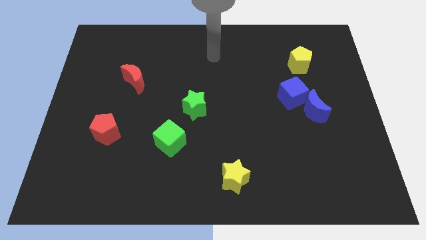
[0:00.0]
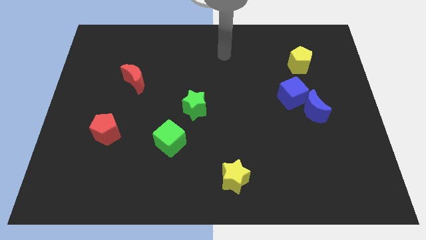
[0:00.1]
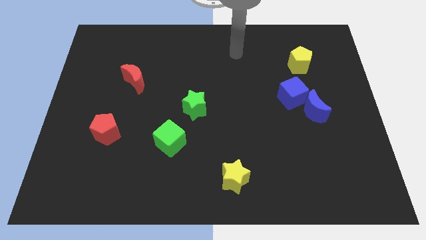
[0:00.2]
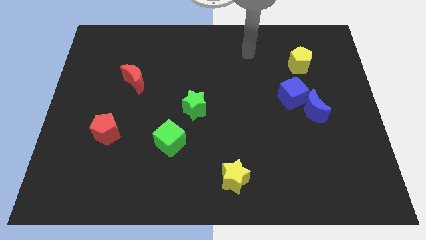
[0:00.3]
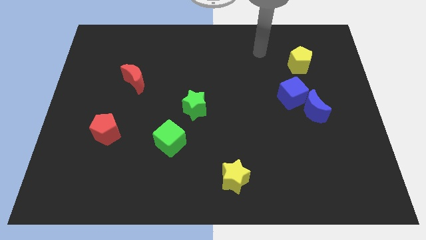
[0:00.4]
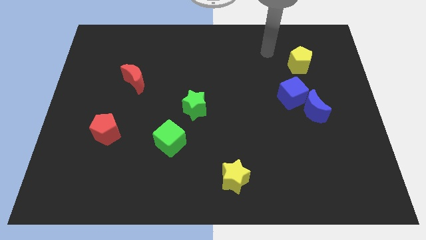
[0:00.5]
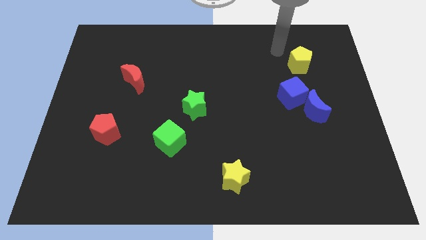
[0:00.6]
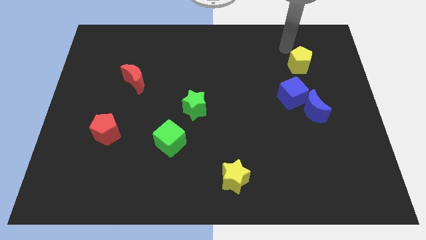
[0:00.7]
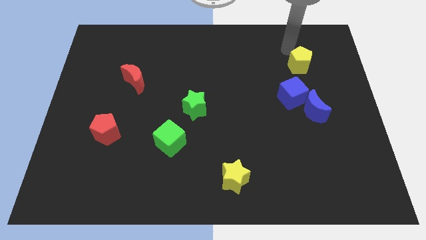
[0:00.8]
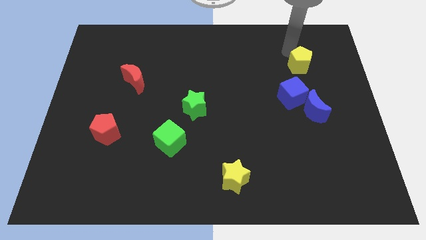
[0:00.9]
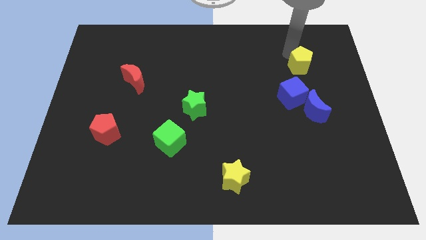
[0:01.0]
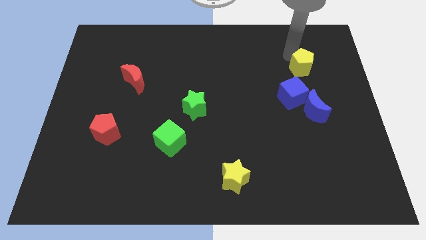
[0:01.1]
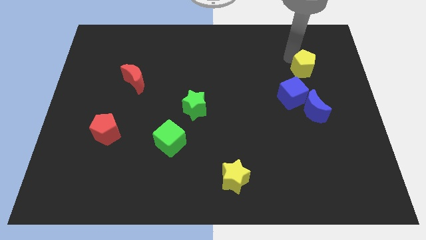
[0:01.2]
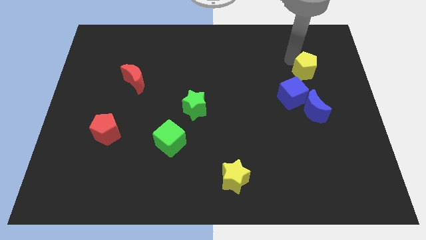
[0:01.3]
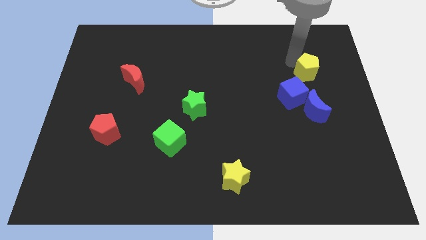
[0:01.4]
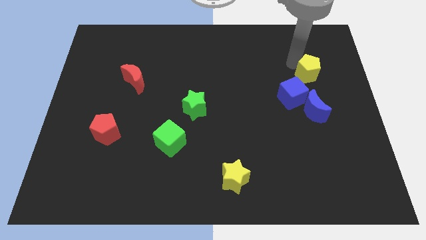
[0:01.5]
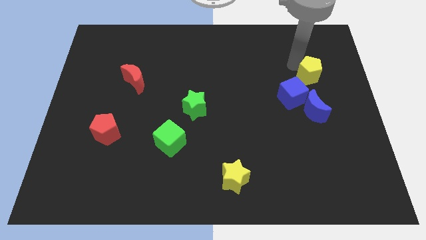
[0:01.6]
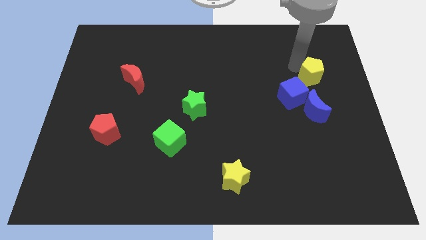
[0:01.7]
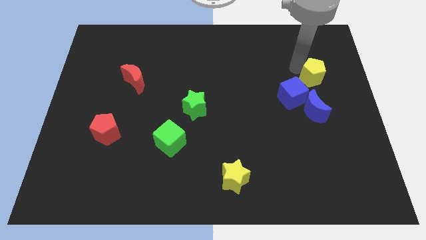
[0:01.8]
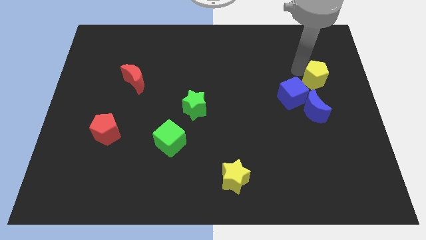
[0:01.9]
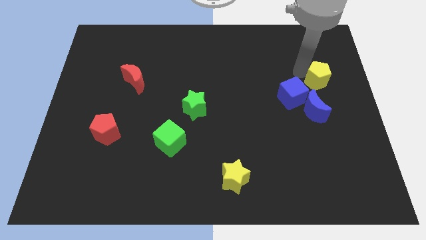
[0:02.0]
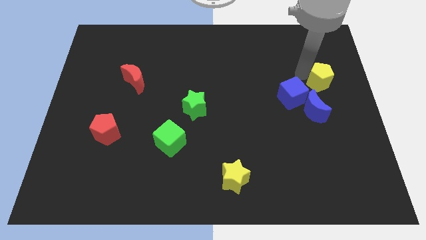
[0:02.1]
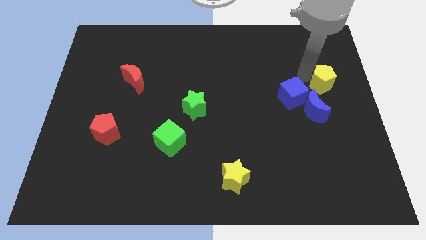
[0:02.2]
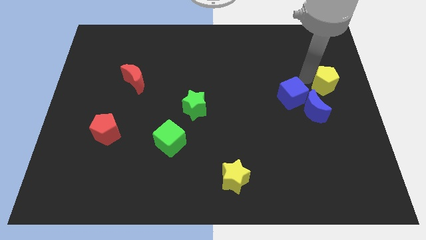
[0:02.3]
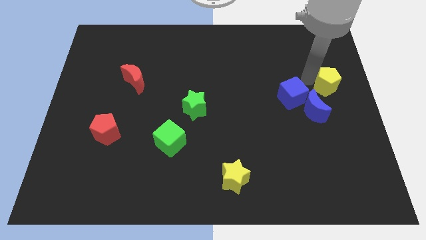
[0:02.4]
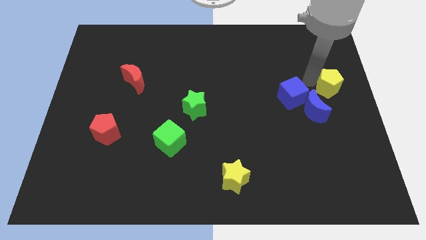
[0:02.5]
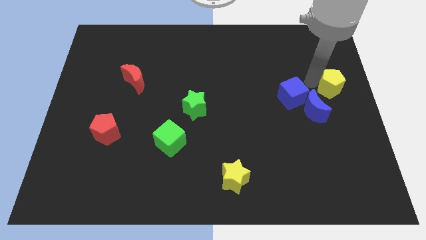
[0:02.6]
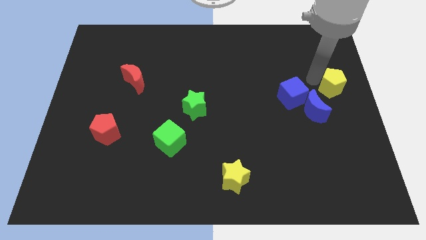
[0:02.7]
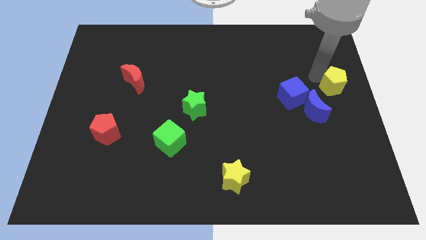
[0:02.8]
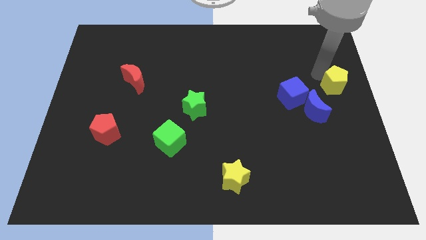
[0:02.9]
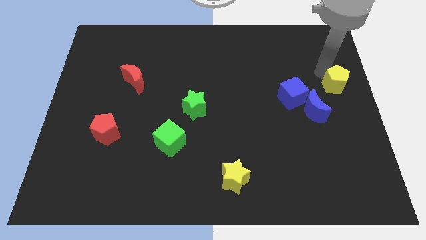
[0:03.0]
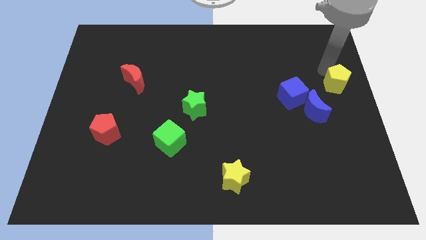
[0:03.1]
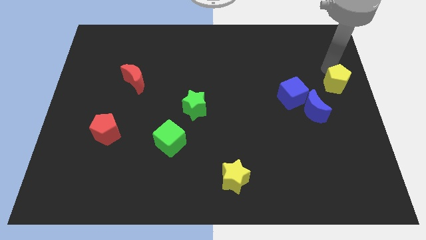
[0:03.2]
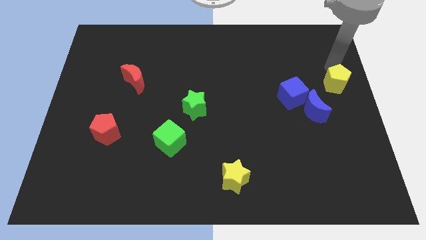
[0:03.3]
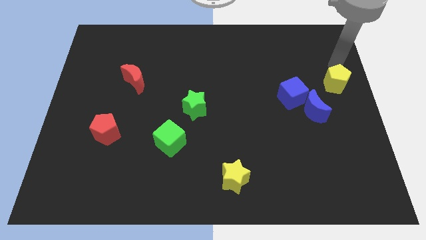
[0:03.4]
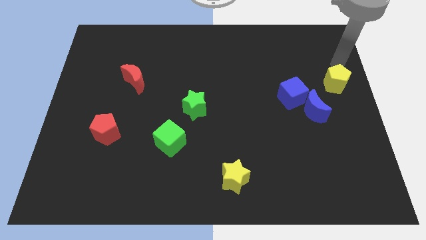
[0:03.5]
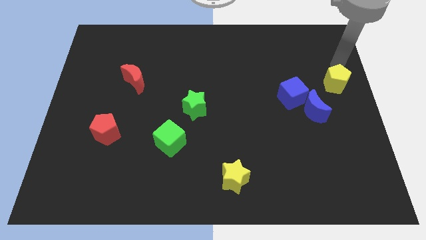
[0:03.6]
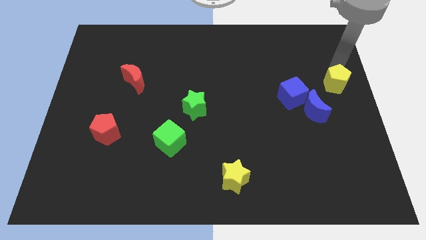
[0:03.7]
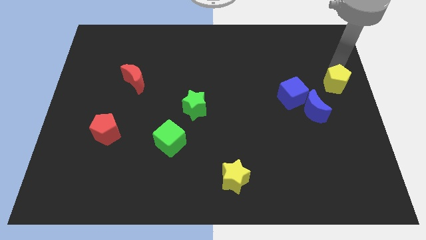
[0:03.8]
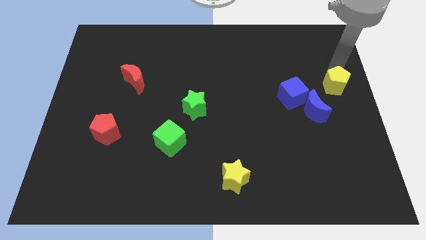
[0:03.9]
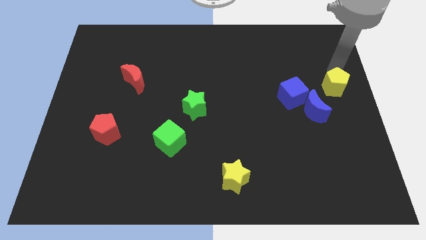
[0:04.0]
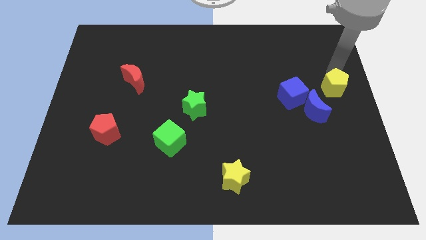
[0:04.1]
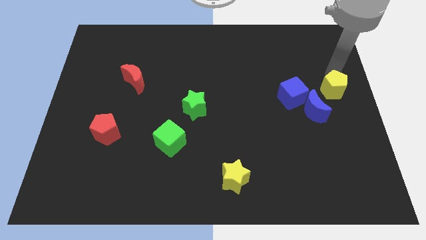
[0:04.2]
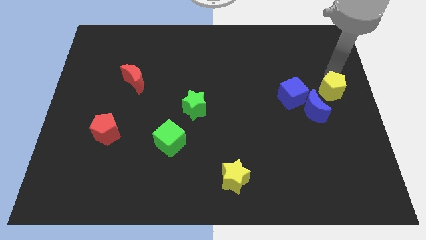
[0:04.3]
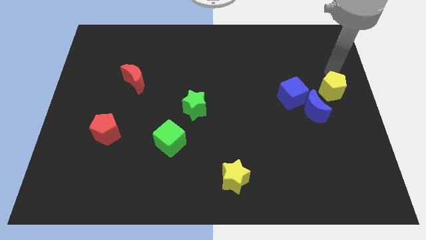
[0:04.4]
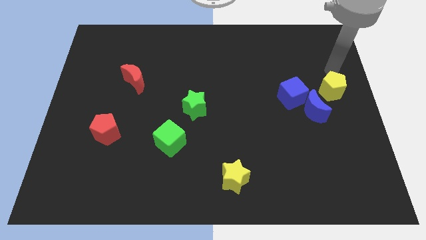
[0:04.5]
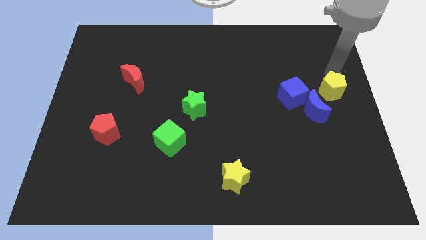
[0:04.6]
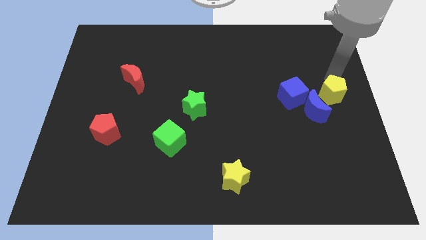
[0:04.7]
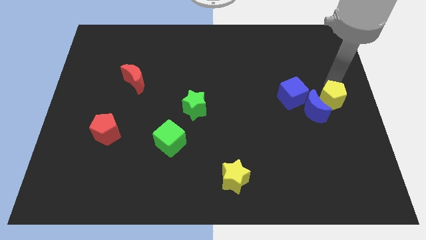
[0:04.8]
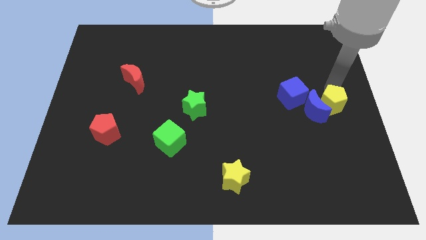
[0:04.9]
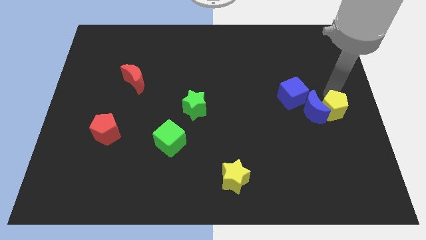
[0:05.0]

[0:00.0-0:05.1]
put the yellow pentagon to the bottom right of the blue moon

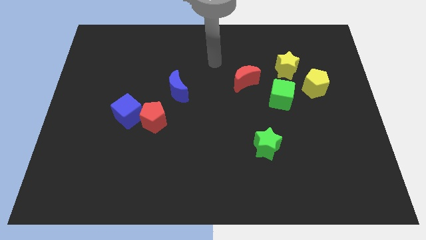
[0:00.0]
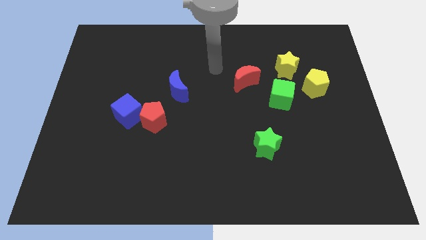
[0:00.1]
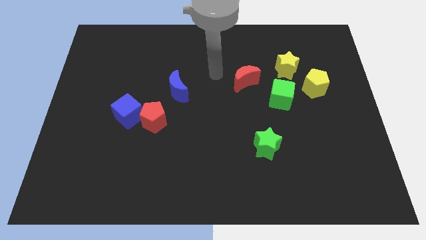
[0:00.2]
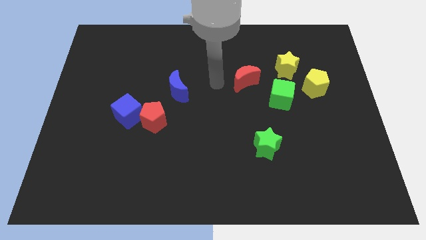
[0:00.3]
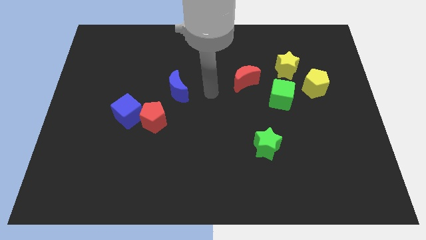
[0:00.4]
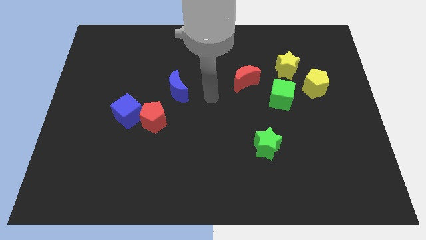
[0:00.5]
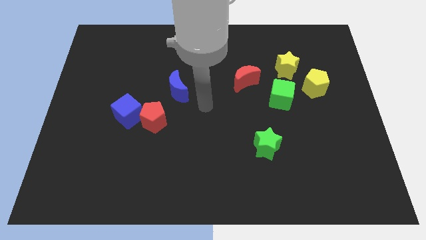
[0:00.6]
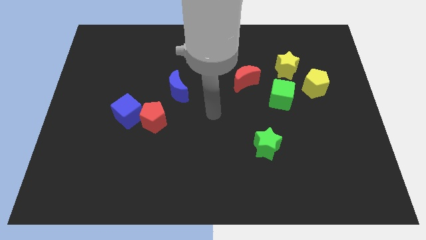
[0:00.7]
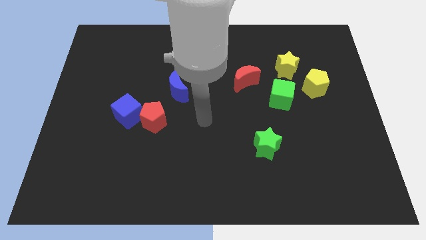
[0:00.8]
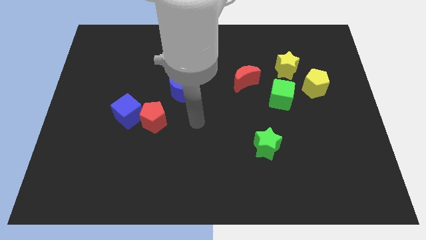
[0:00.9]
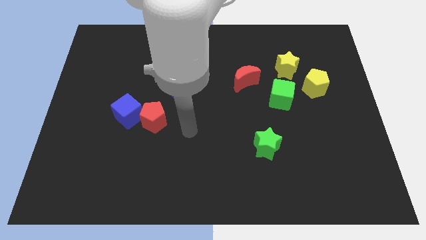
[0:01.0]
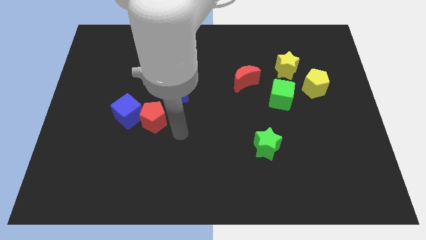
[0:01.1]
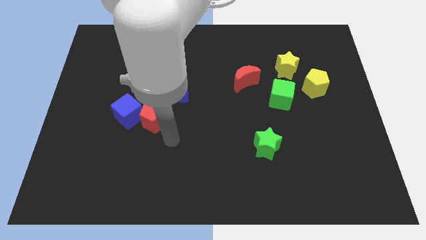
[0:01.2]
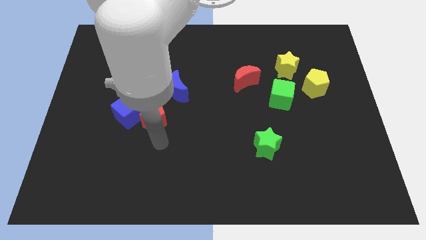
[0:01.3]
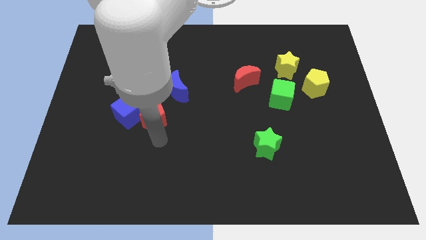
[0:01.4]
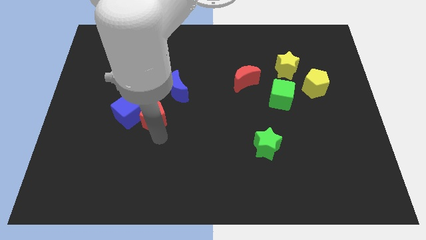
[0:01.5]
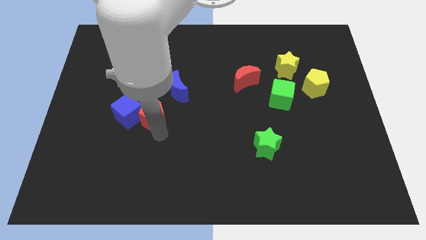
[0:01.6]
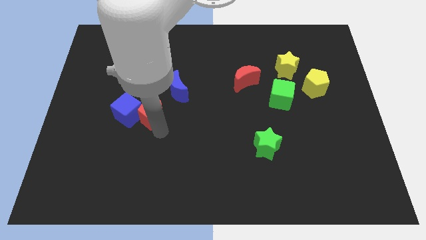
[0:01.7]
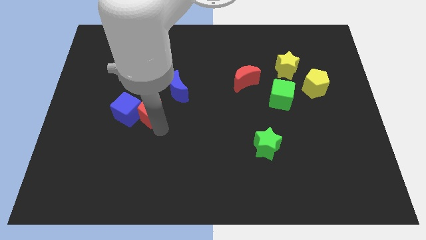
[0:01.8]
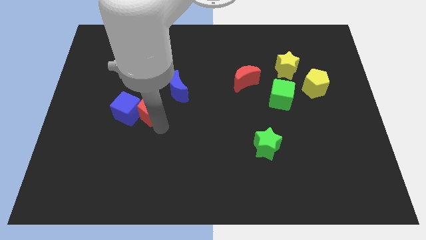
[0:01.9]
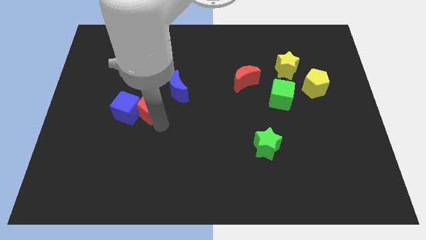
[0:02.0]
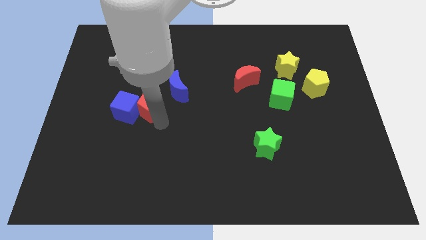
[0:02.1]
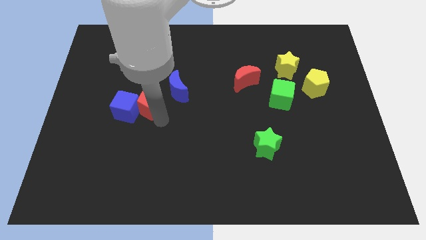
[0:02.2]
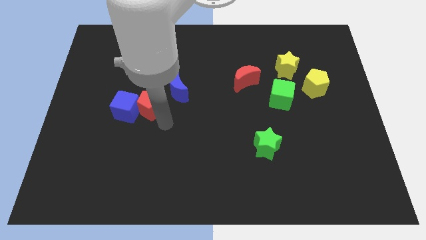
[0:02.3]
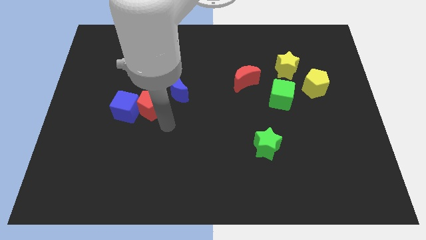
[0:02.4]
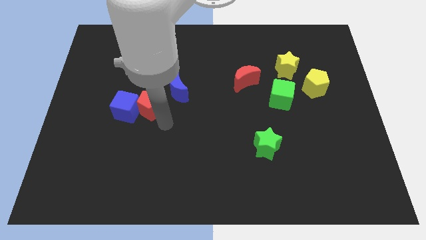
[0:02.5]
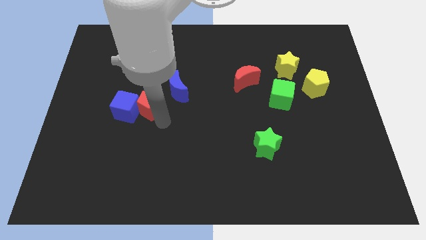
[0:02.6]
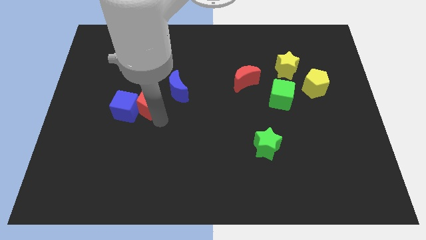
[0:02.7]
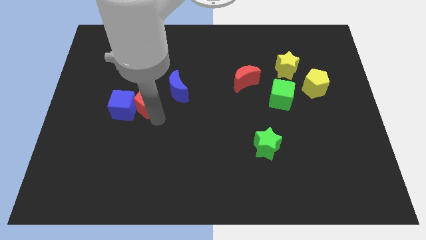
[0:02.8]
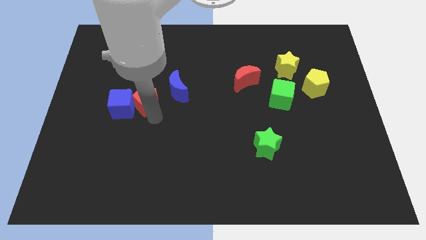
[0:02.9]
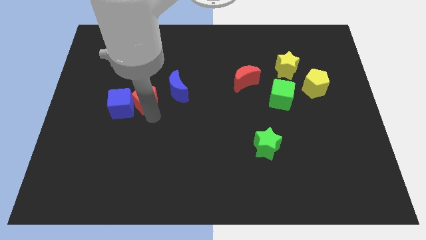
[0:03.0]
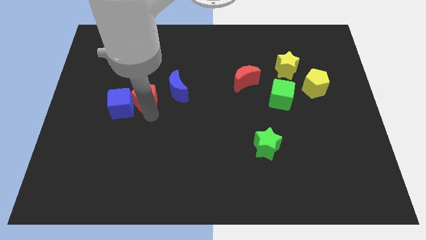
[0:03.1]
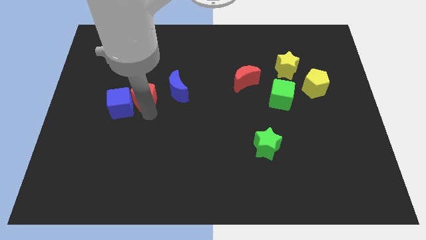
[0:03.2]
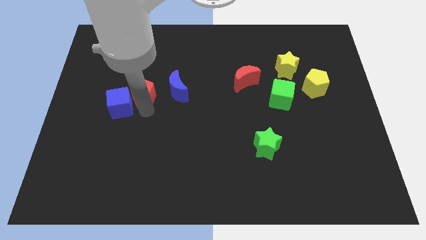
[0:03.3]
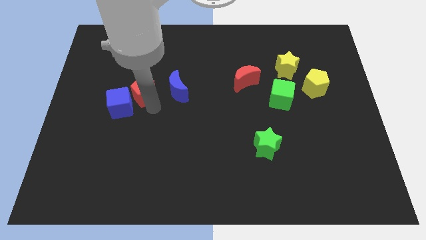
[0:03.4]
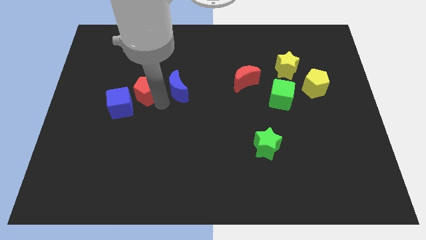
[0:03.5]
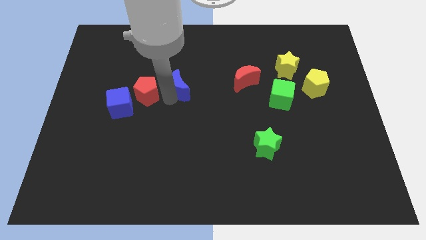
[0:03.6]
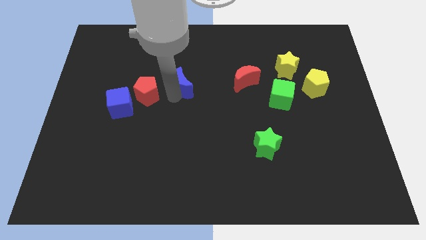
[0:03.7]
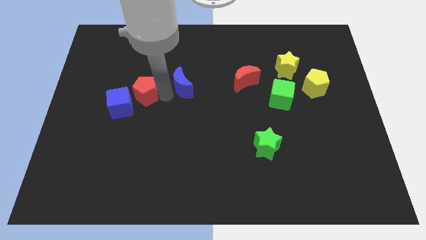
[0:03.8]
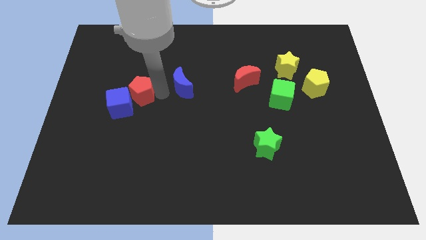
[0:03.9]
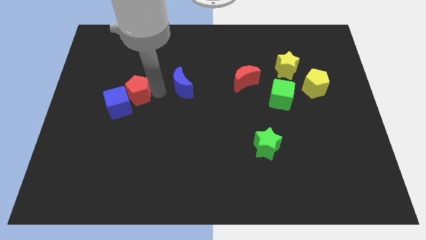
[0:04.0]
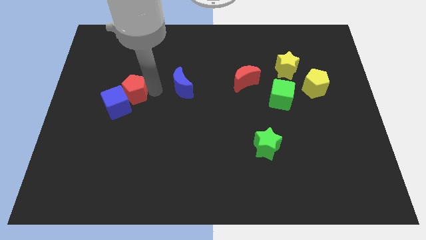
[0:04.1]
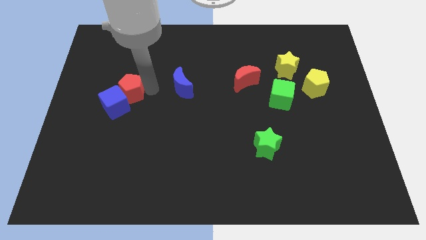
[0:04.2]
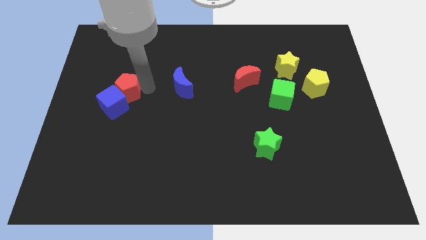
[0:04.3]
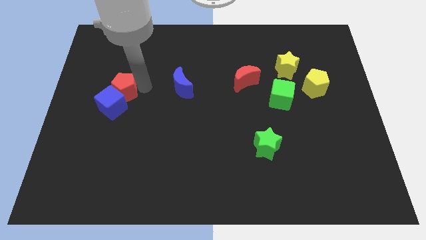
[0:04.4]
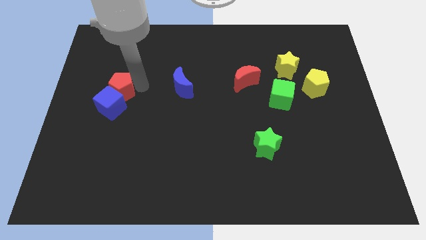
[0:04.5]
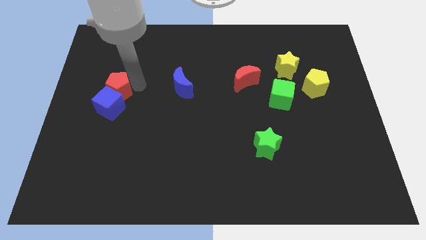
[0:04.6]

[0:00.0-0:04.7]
put the red pentagon to the top left of the blue cube
